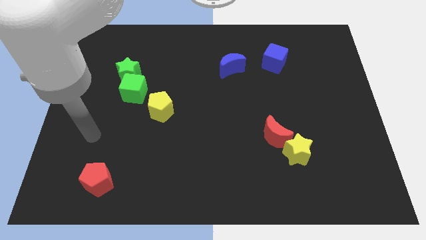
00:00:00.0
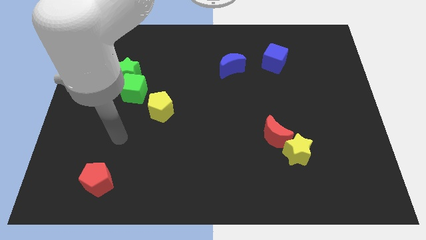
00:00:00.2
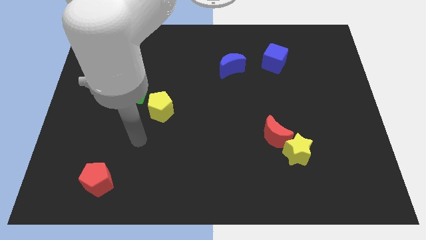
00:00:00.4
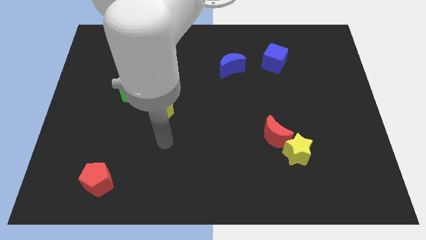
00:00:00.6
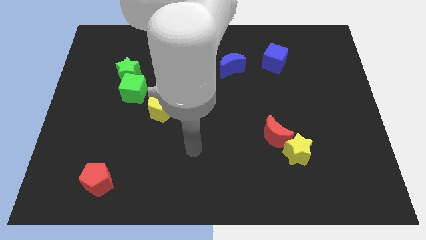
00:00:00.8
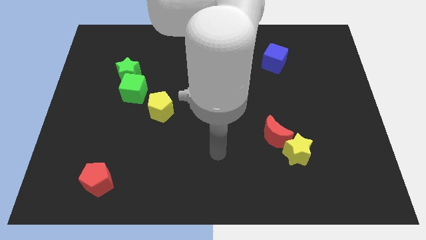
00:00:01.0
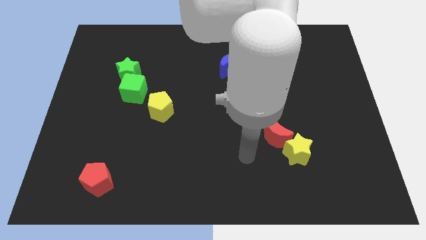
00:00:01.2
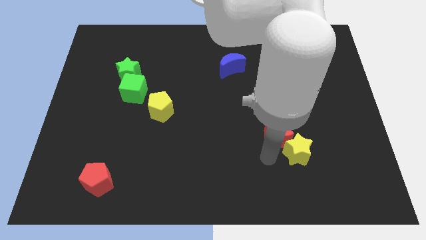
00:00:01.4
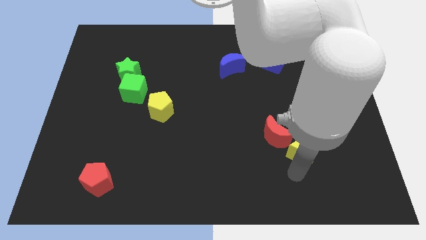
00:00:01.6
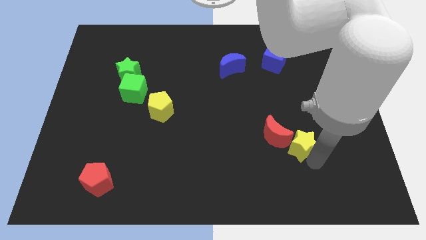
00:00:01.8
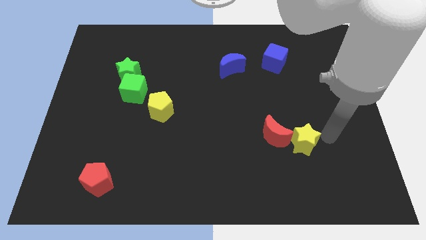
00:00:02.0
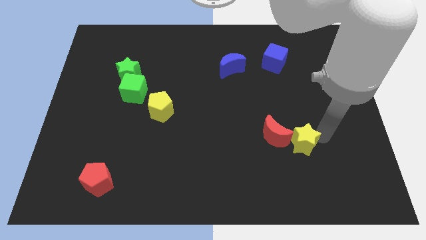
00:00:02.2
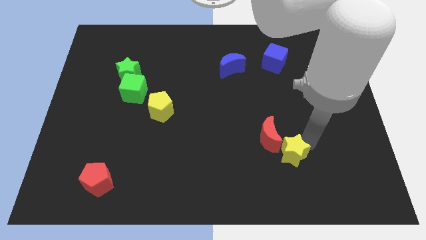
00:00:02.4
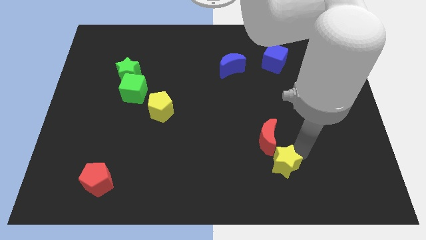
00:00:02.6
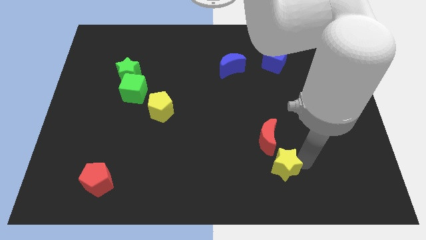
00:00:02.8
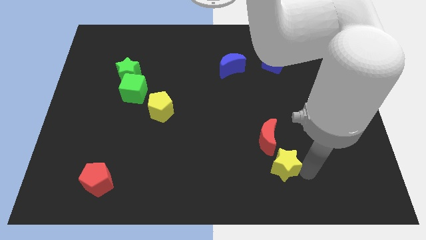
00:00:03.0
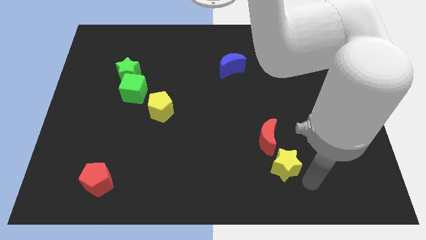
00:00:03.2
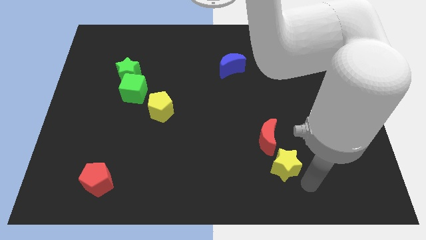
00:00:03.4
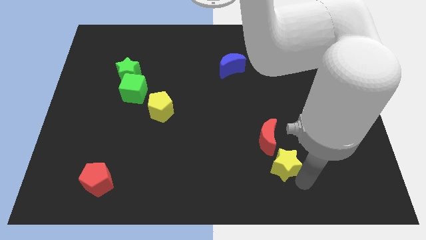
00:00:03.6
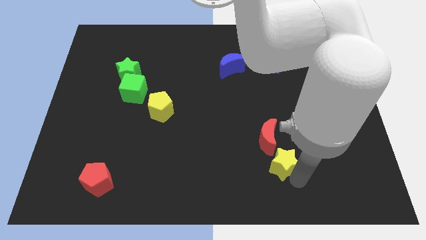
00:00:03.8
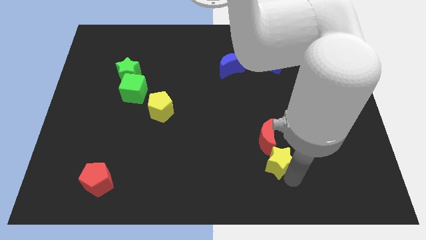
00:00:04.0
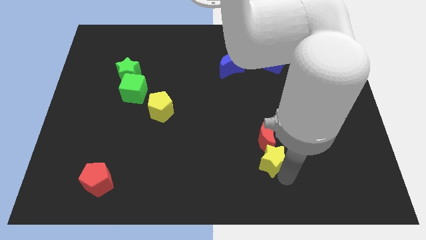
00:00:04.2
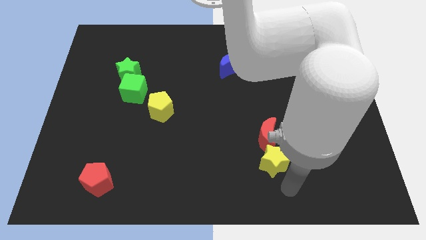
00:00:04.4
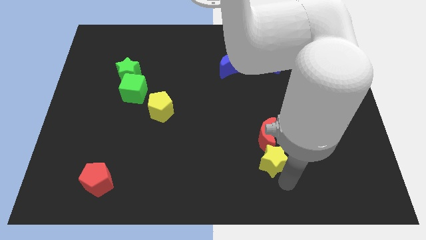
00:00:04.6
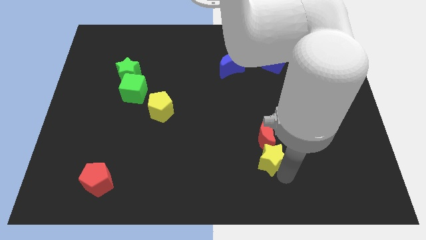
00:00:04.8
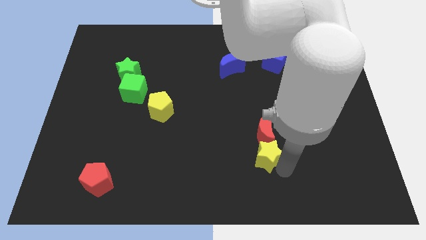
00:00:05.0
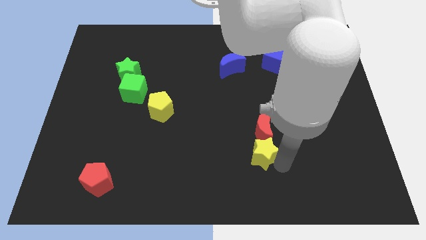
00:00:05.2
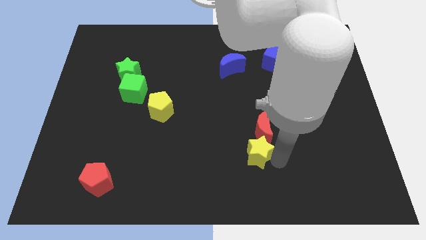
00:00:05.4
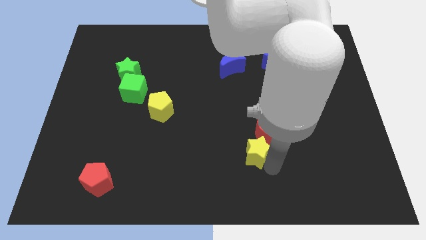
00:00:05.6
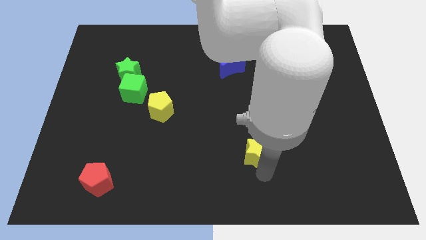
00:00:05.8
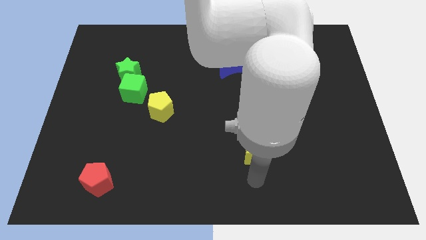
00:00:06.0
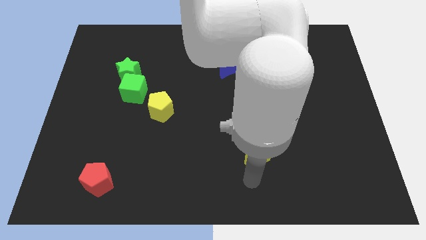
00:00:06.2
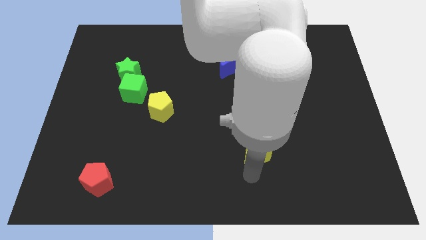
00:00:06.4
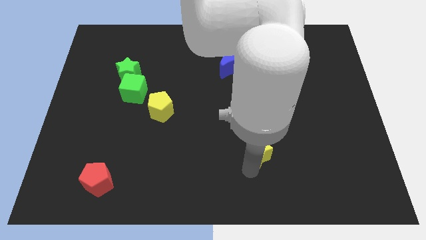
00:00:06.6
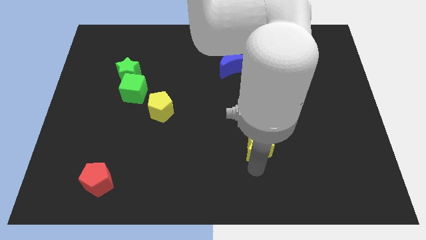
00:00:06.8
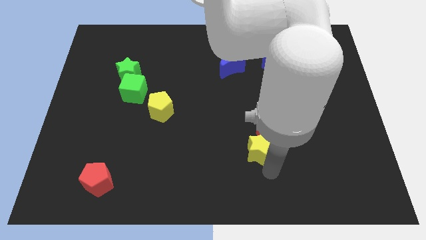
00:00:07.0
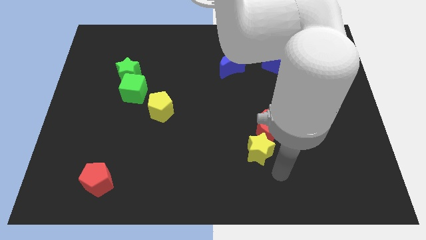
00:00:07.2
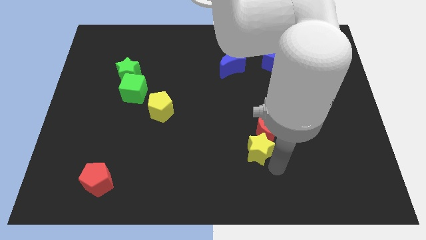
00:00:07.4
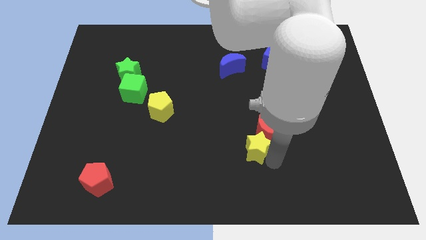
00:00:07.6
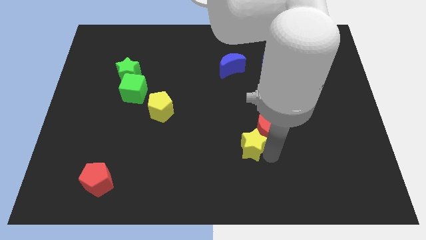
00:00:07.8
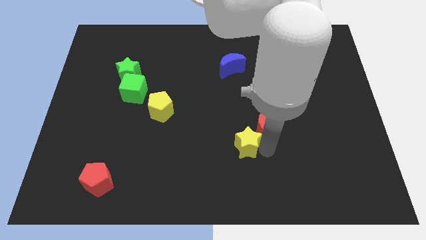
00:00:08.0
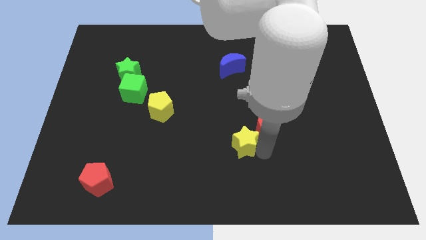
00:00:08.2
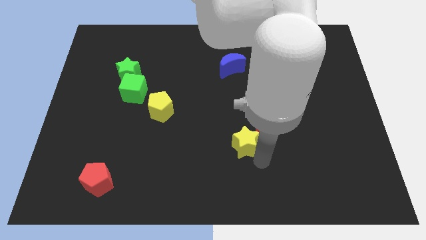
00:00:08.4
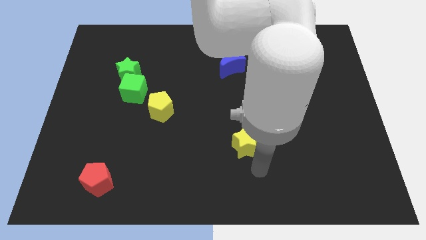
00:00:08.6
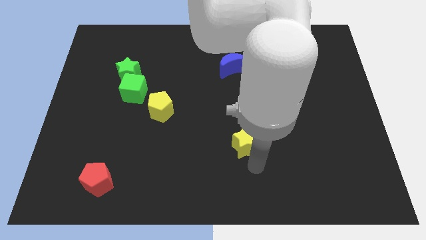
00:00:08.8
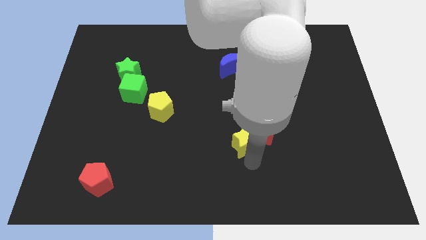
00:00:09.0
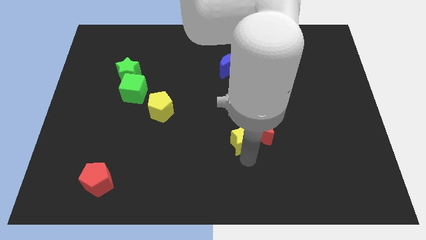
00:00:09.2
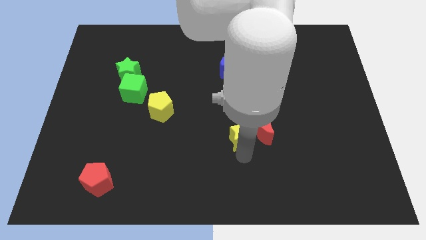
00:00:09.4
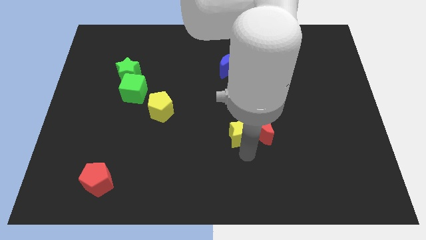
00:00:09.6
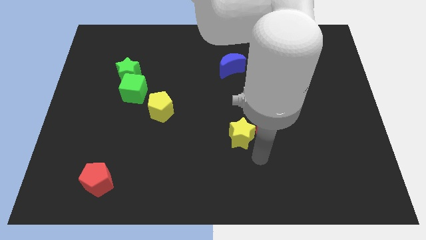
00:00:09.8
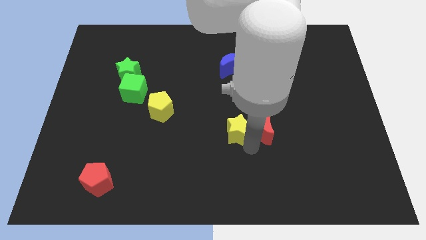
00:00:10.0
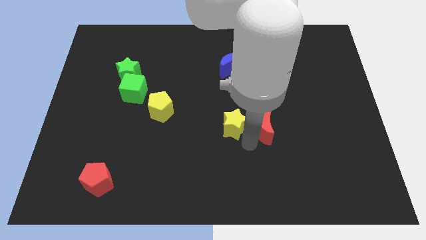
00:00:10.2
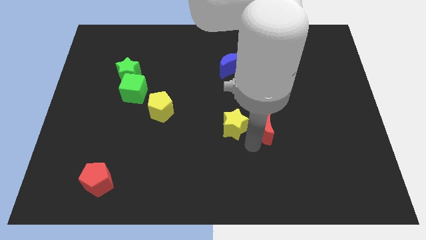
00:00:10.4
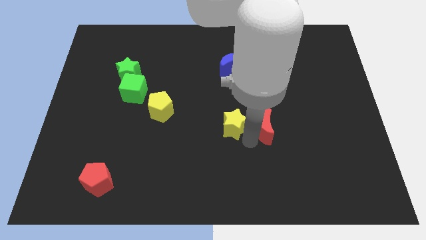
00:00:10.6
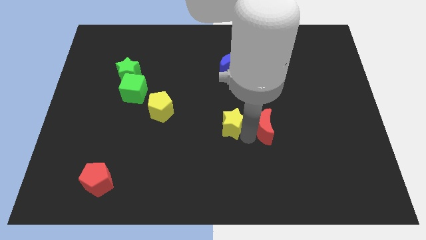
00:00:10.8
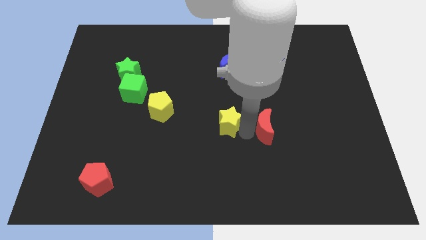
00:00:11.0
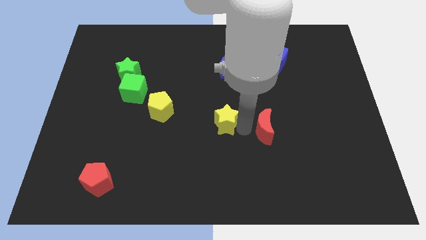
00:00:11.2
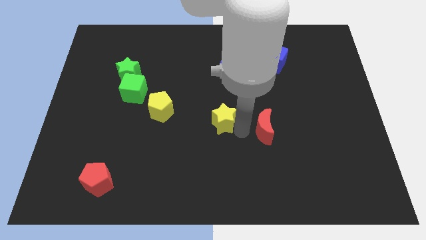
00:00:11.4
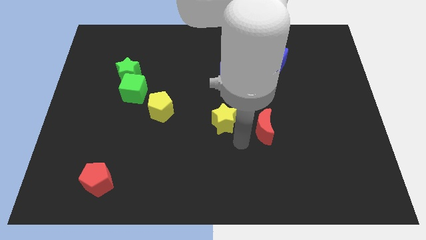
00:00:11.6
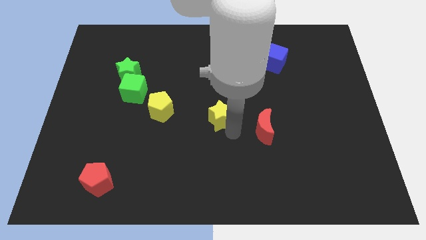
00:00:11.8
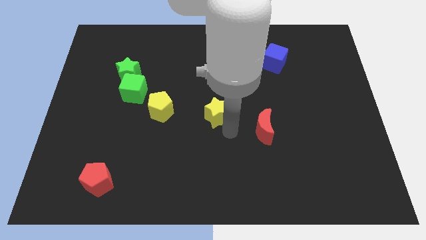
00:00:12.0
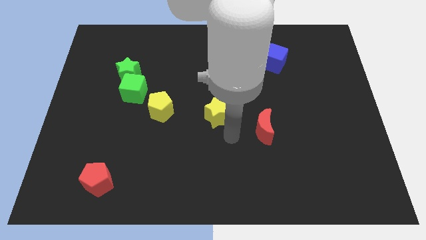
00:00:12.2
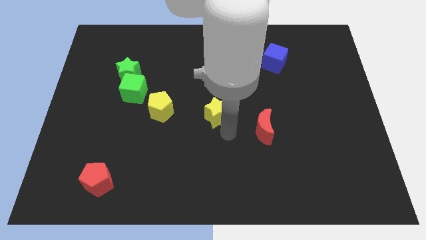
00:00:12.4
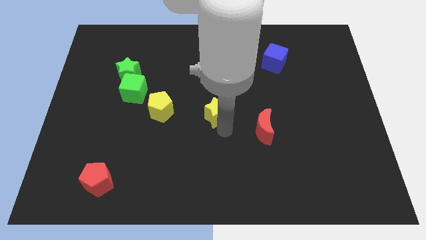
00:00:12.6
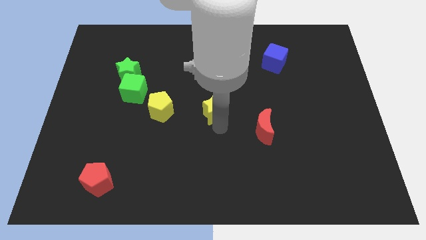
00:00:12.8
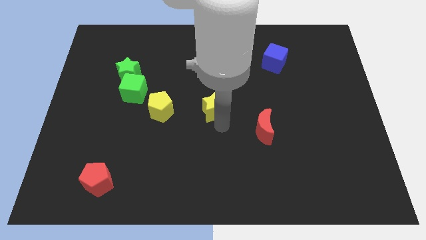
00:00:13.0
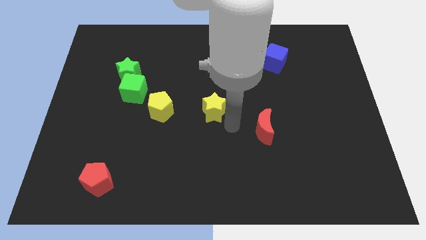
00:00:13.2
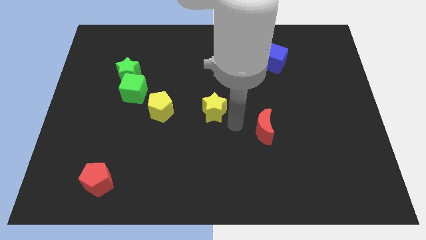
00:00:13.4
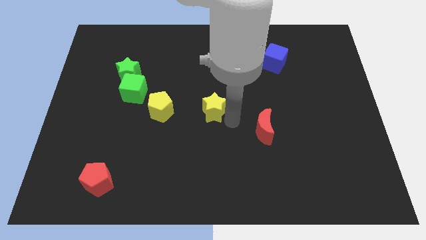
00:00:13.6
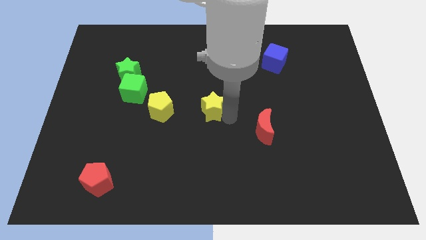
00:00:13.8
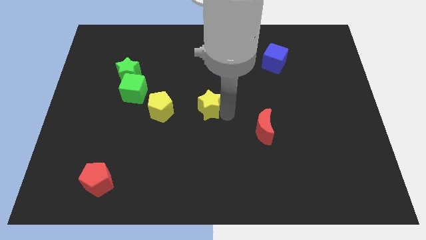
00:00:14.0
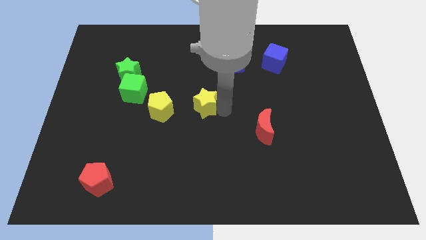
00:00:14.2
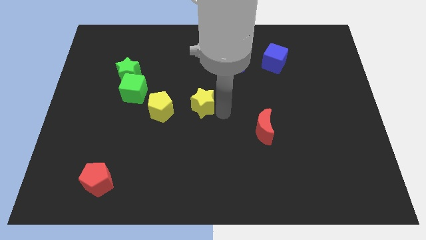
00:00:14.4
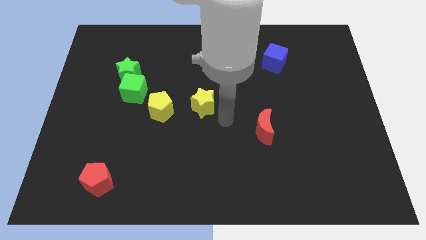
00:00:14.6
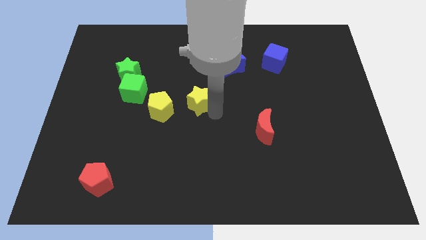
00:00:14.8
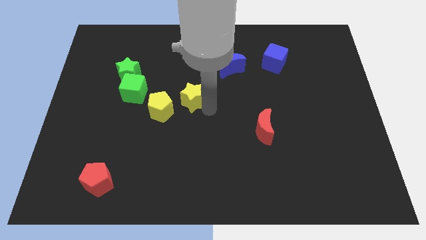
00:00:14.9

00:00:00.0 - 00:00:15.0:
put the yellow star diagonally up and to the right of the yellow pentagon
